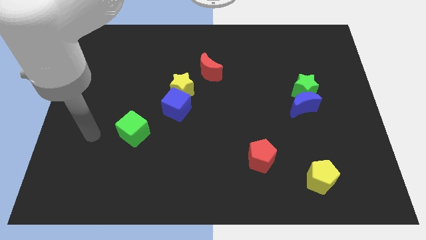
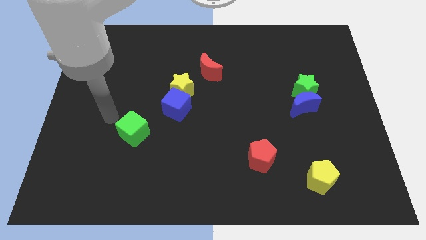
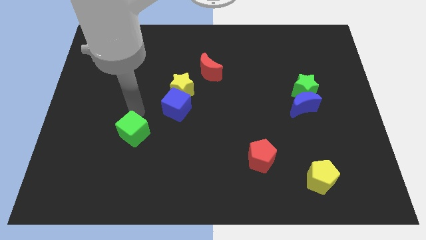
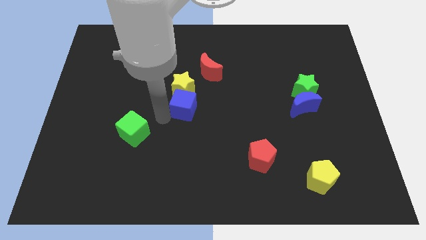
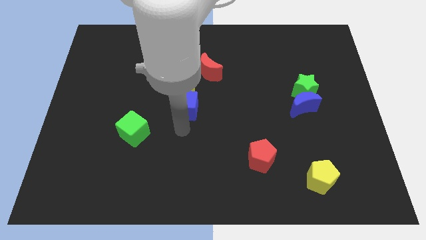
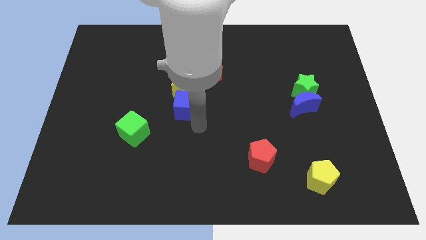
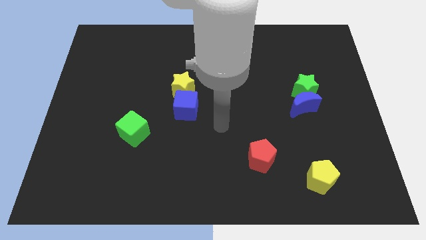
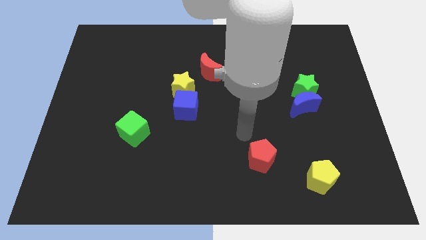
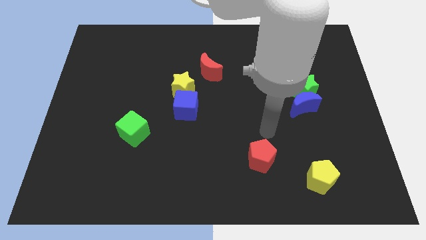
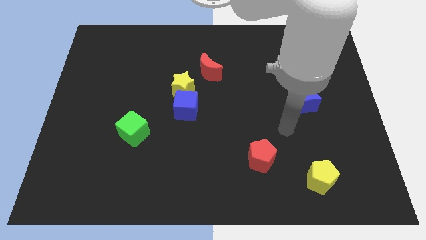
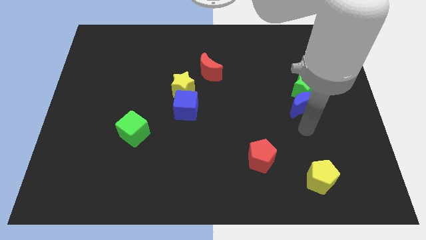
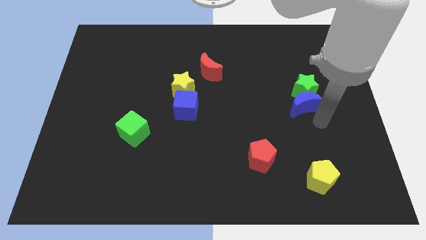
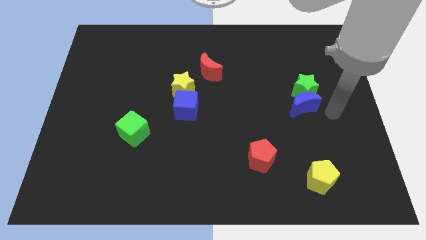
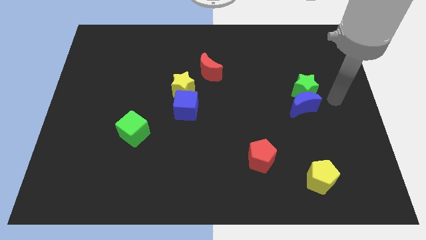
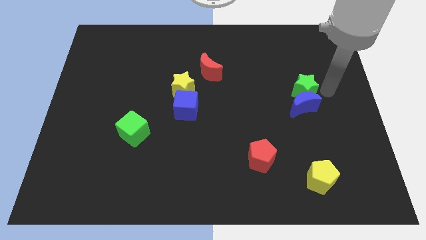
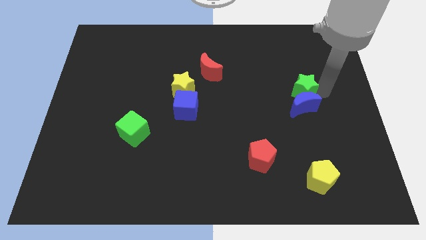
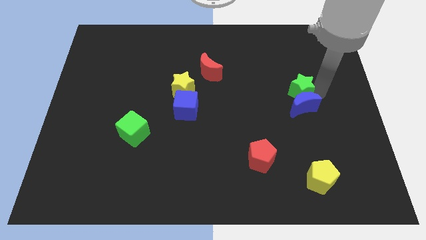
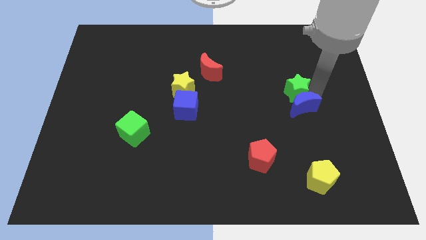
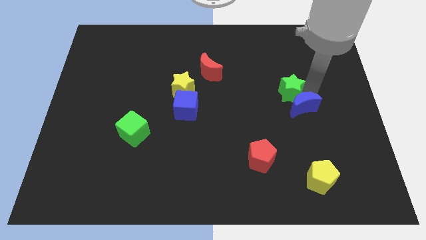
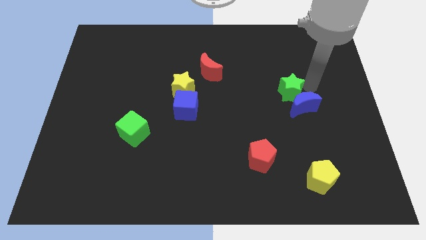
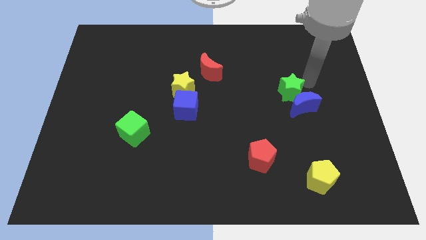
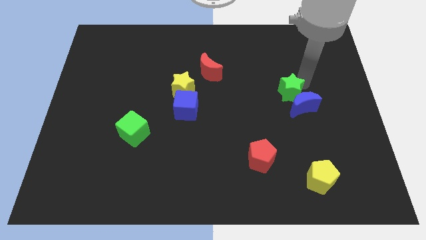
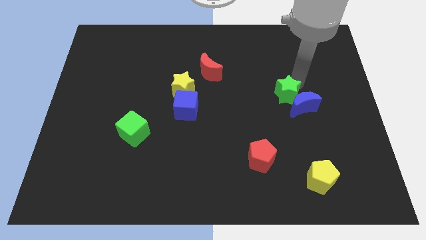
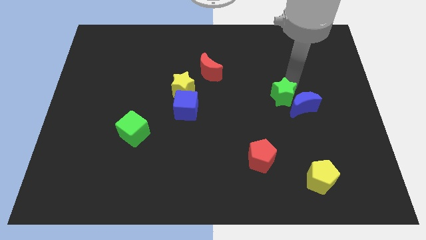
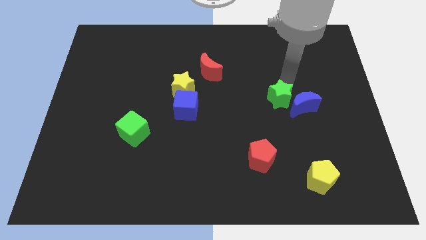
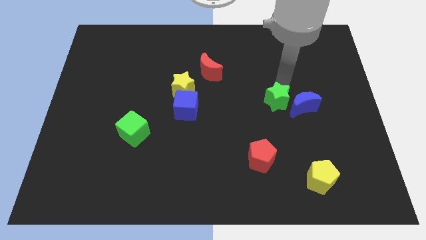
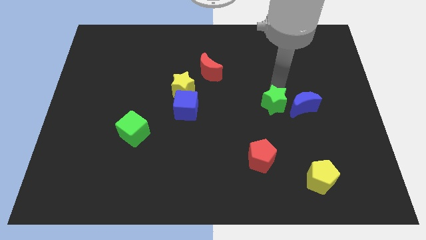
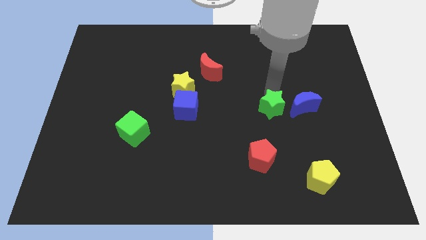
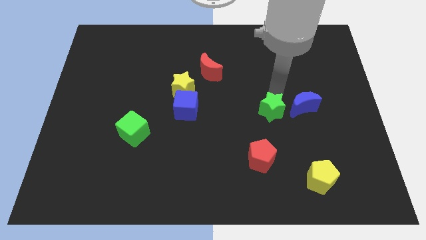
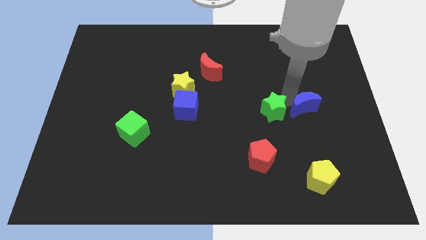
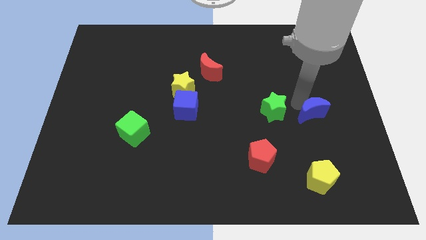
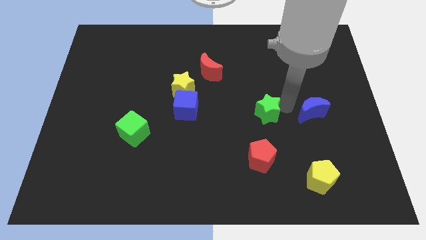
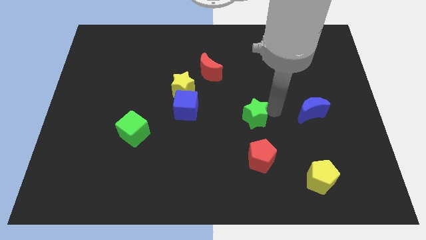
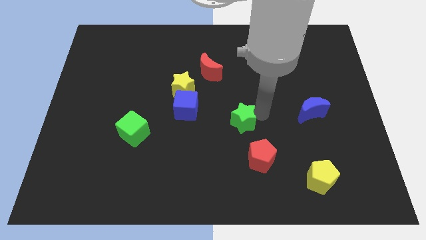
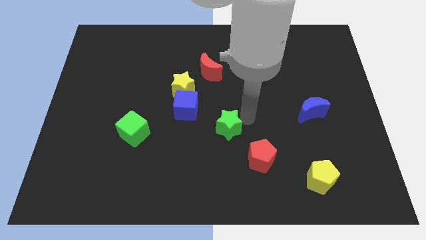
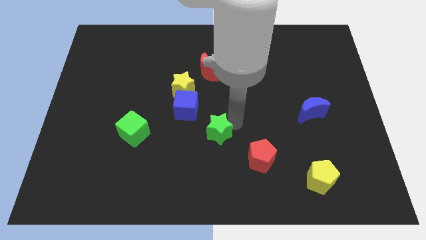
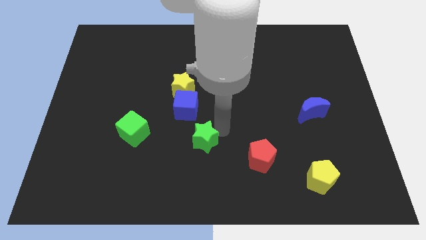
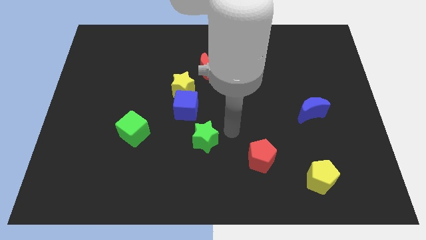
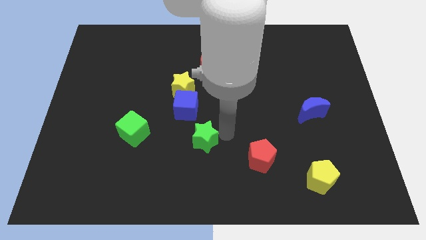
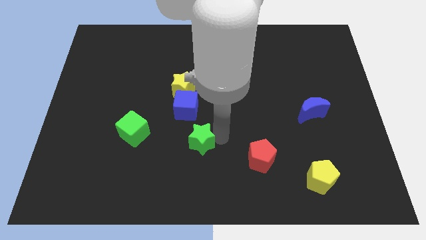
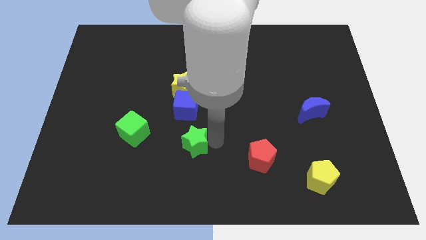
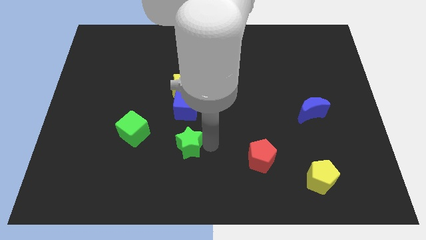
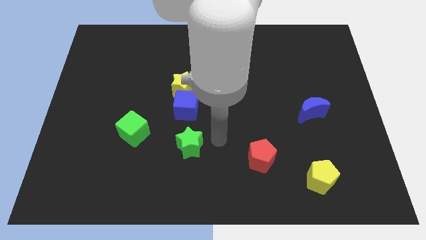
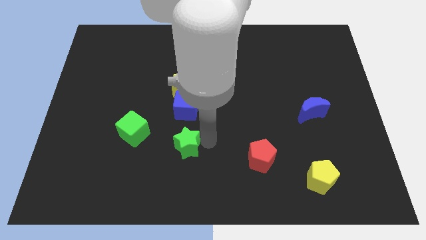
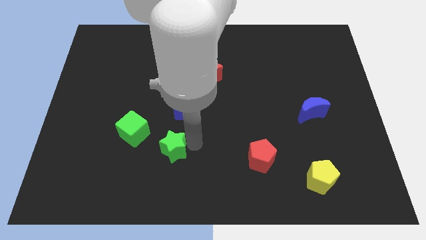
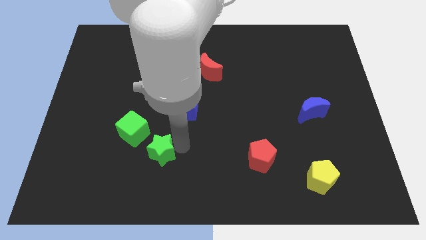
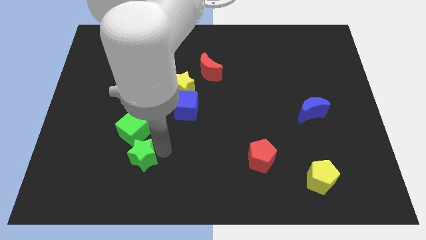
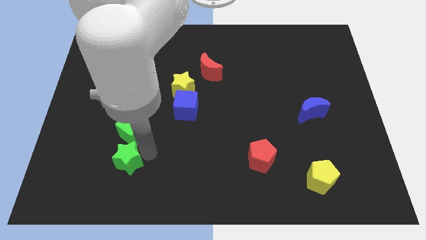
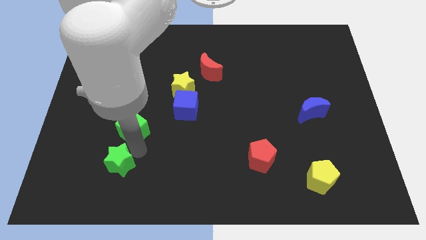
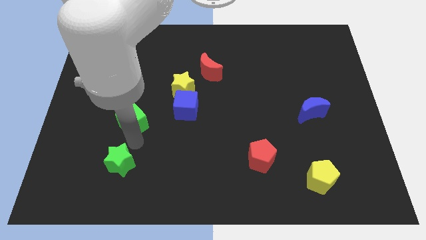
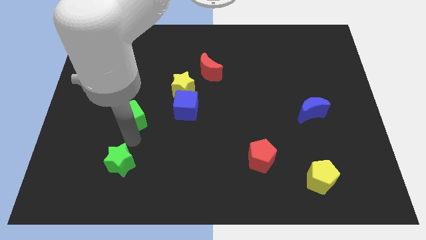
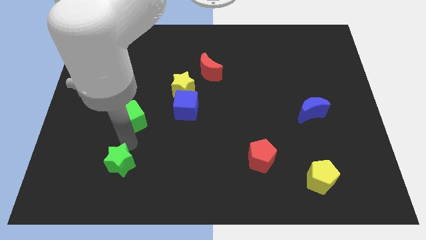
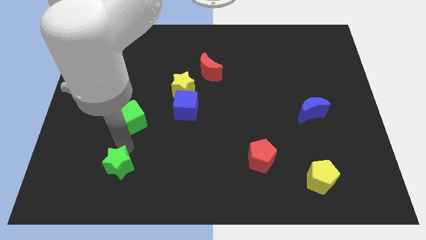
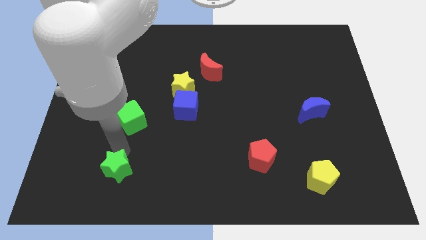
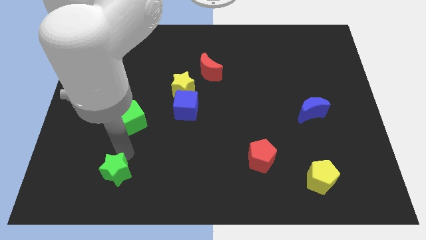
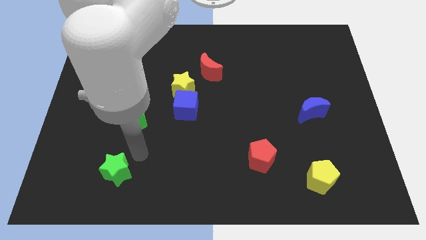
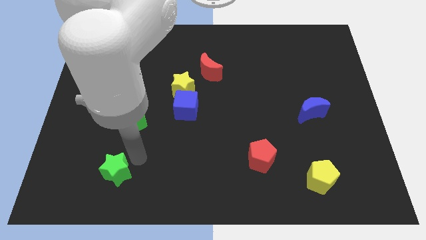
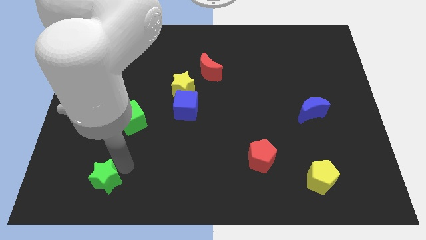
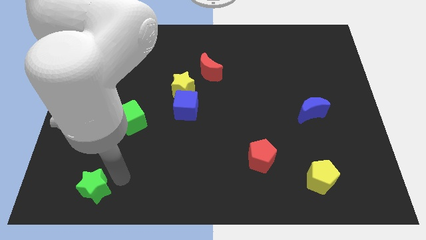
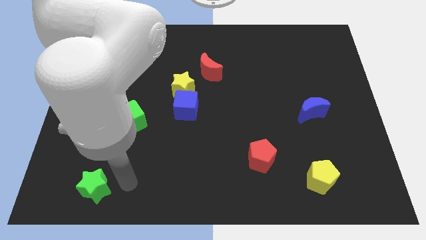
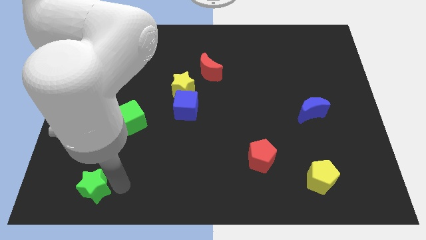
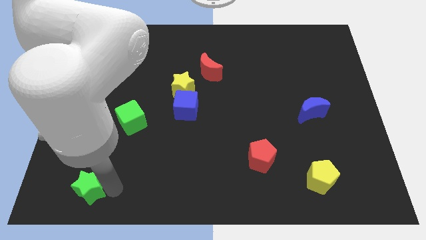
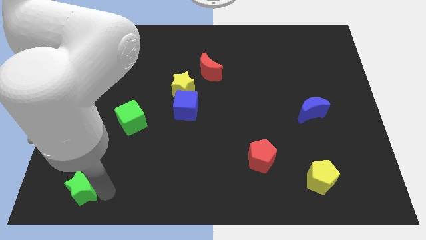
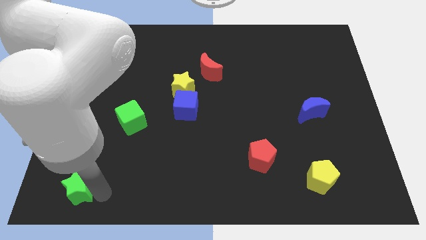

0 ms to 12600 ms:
push the green star to the lower left corner
